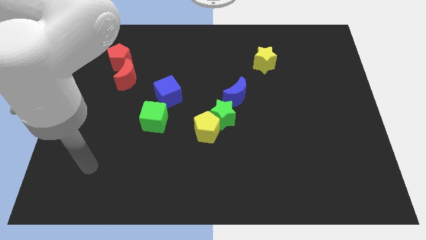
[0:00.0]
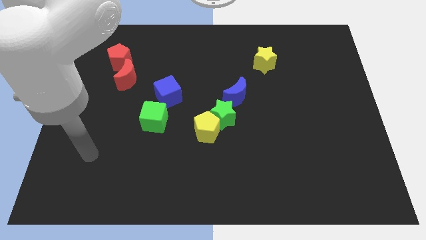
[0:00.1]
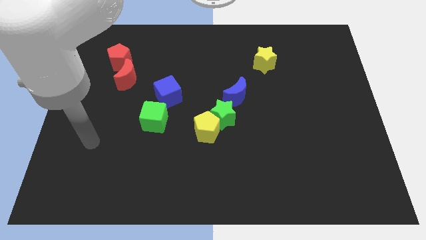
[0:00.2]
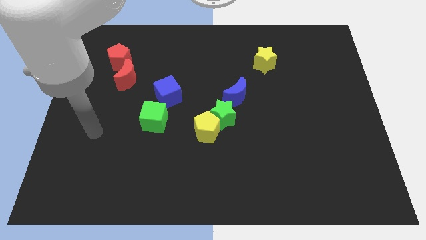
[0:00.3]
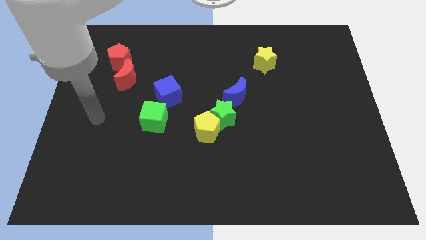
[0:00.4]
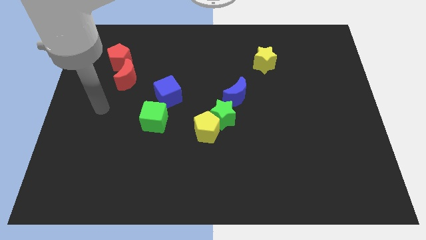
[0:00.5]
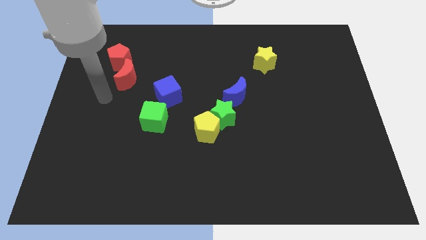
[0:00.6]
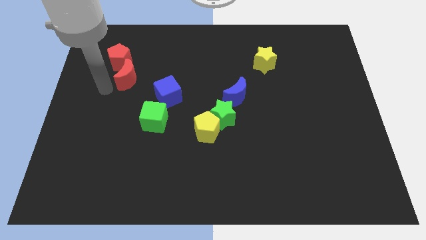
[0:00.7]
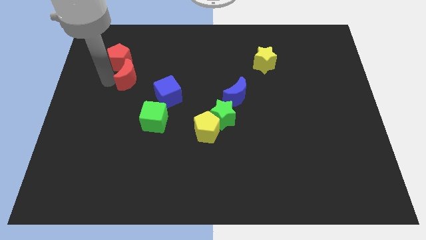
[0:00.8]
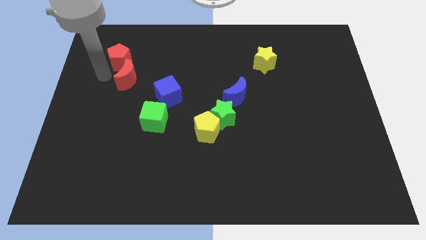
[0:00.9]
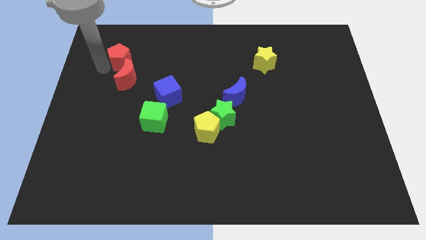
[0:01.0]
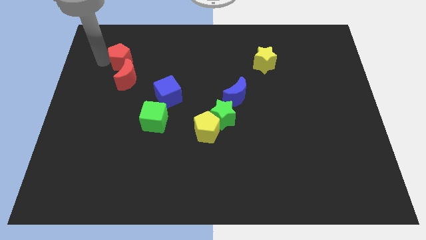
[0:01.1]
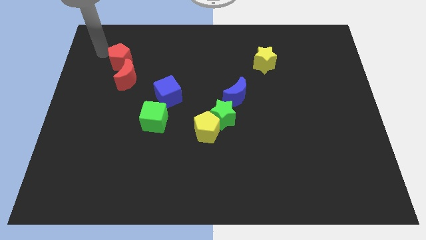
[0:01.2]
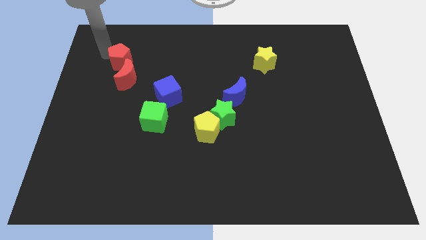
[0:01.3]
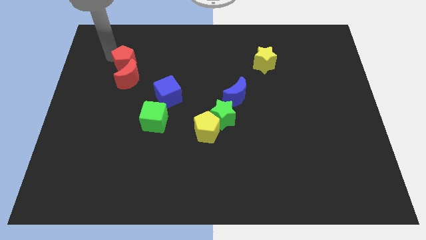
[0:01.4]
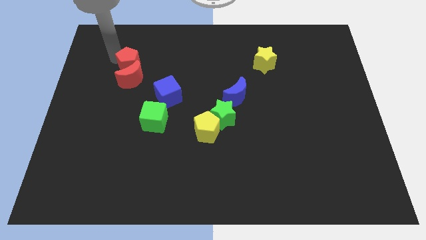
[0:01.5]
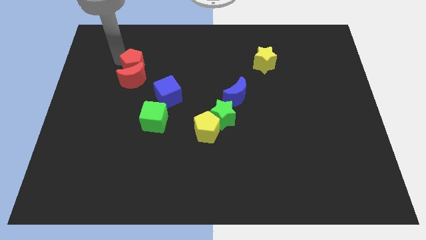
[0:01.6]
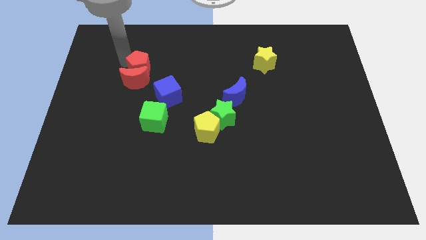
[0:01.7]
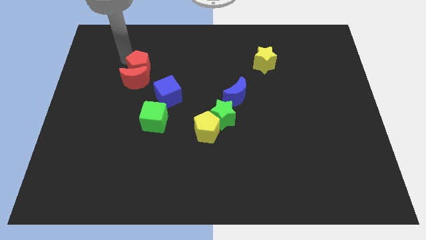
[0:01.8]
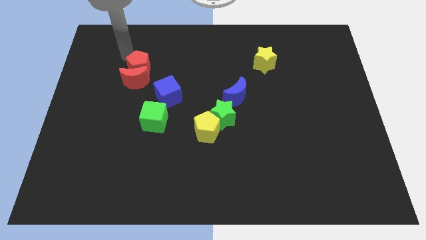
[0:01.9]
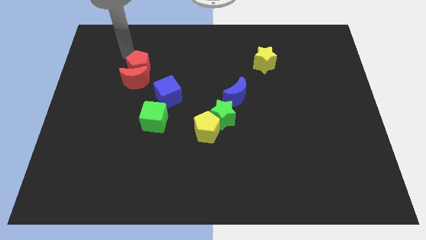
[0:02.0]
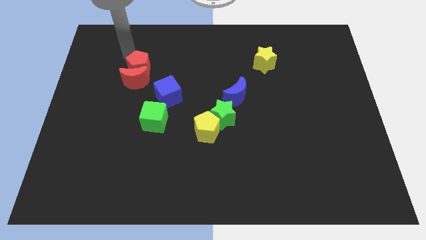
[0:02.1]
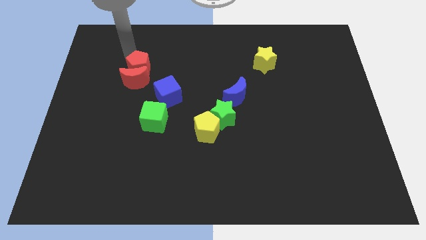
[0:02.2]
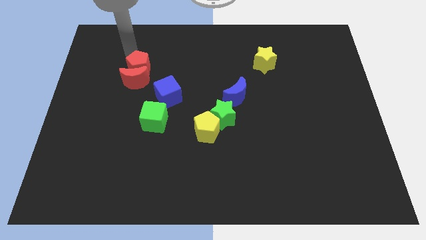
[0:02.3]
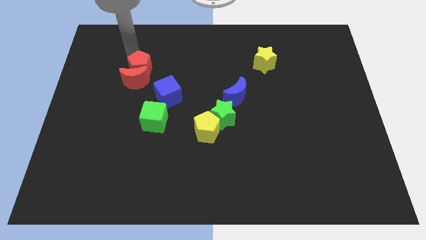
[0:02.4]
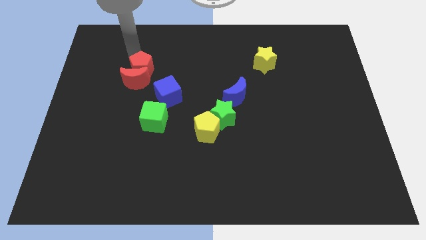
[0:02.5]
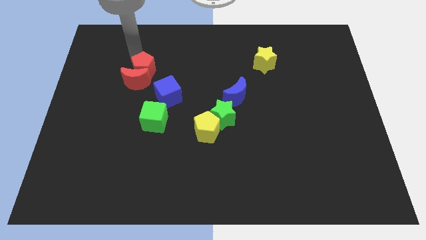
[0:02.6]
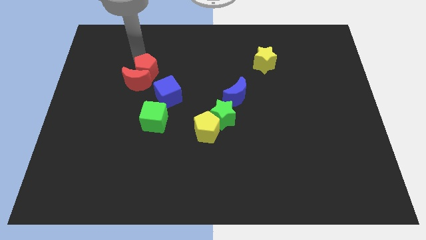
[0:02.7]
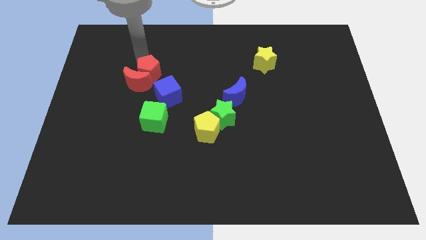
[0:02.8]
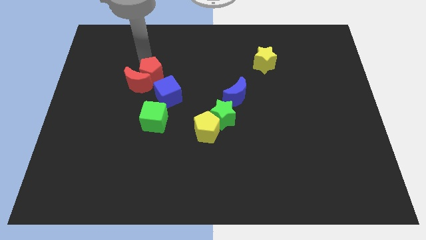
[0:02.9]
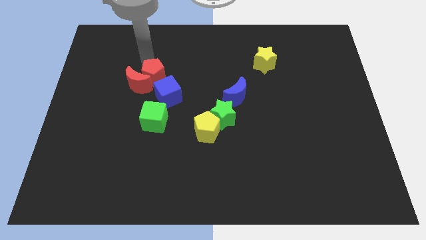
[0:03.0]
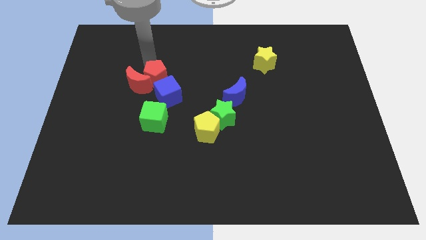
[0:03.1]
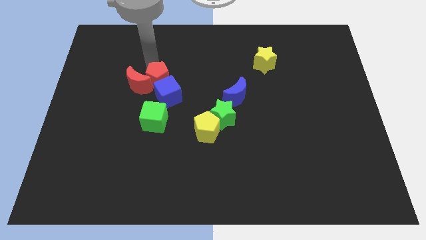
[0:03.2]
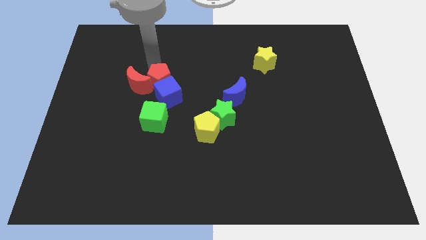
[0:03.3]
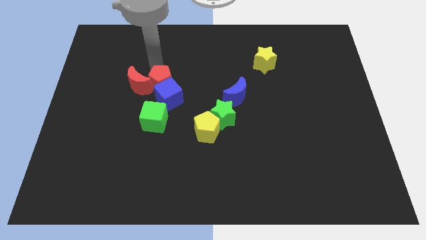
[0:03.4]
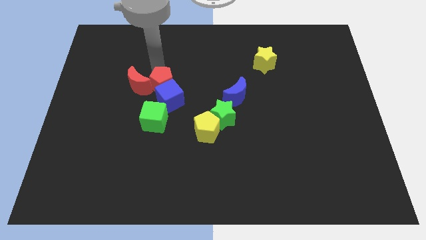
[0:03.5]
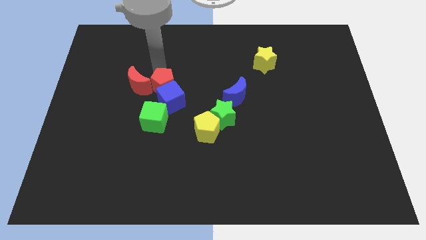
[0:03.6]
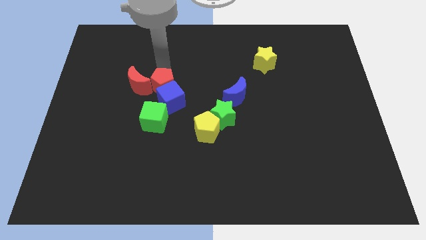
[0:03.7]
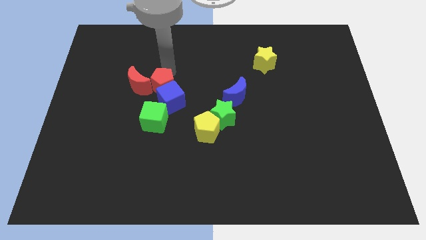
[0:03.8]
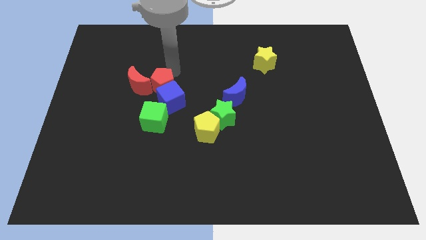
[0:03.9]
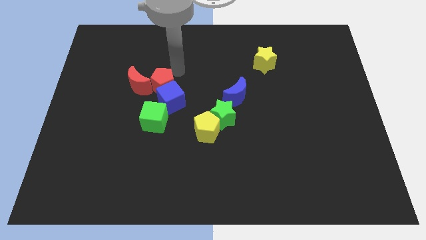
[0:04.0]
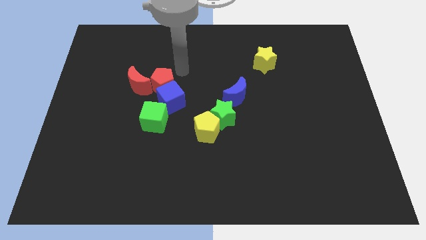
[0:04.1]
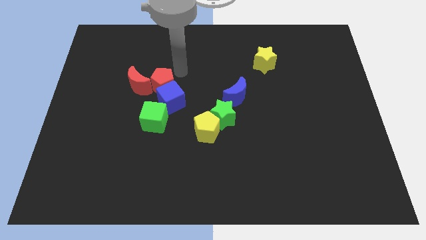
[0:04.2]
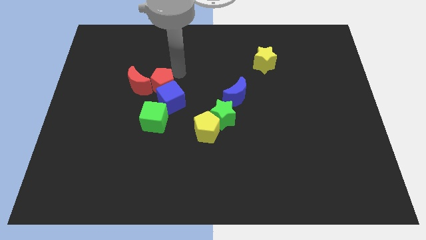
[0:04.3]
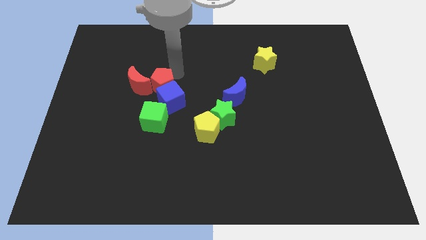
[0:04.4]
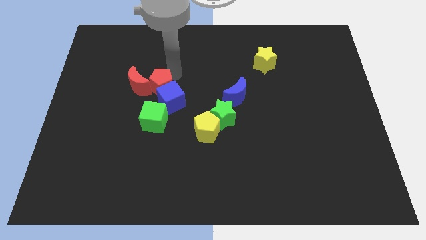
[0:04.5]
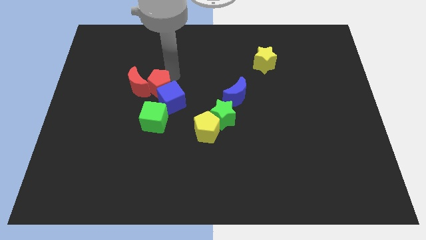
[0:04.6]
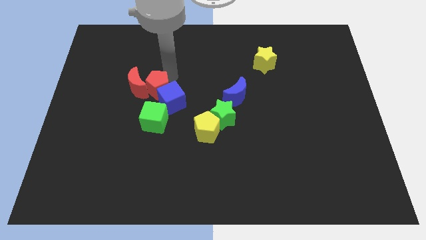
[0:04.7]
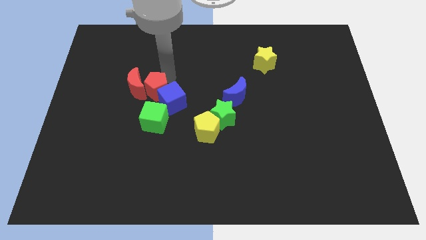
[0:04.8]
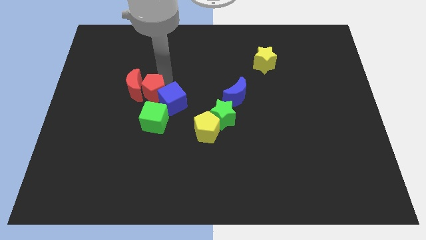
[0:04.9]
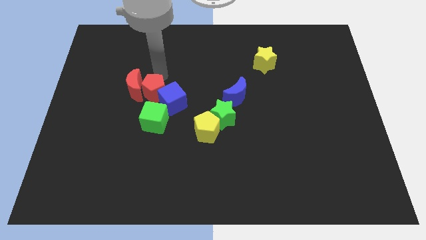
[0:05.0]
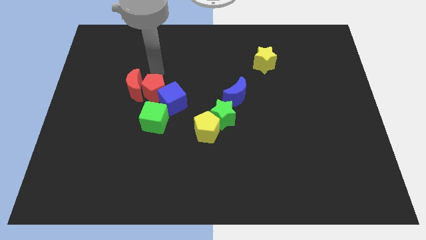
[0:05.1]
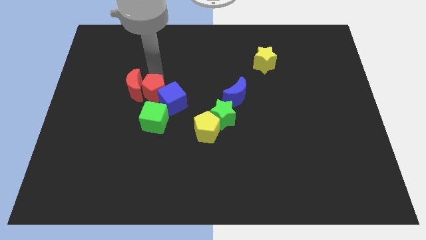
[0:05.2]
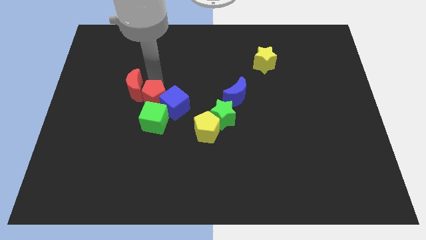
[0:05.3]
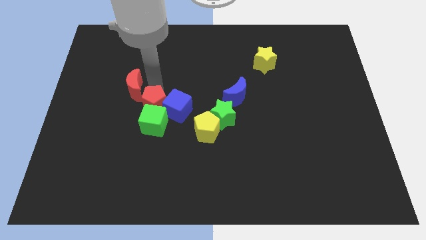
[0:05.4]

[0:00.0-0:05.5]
move the red pentagon next to the green cube

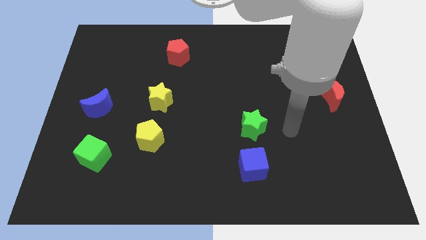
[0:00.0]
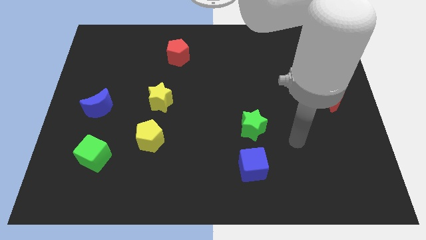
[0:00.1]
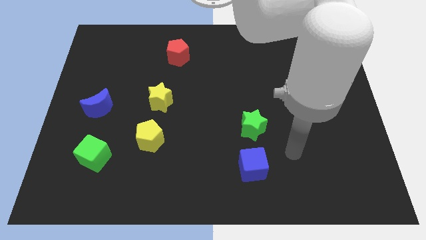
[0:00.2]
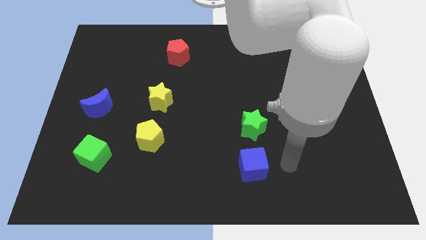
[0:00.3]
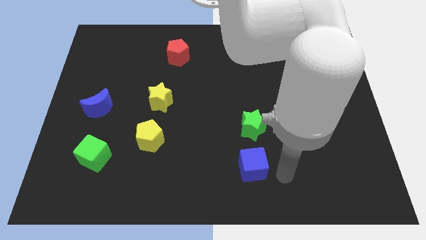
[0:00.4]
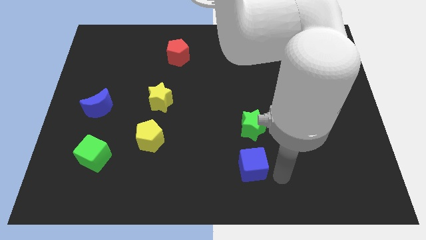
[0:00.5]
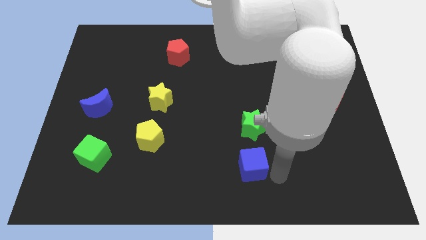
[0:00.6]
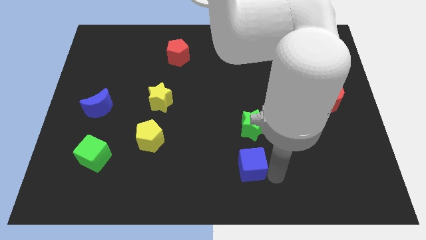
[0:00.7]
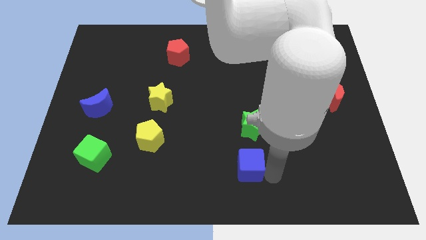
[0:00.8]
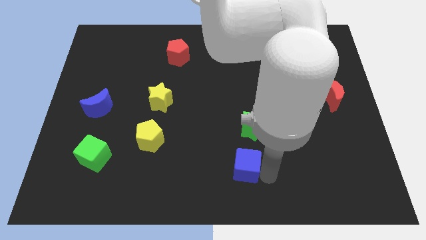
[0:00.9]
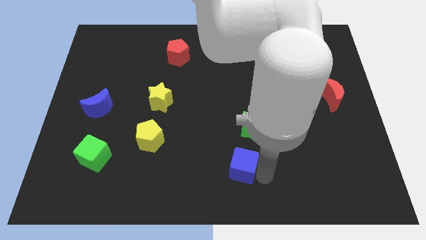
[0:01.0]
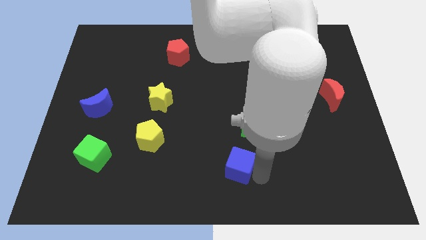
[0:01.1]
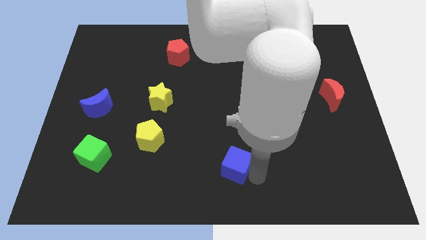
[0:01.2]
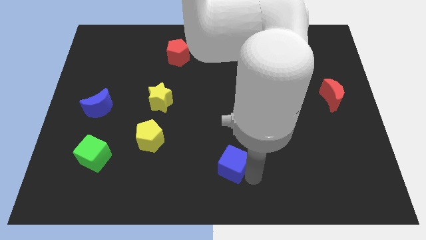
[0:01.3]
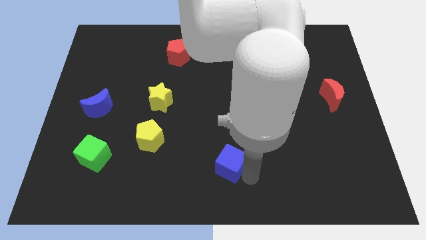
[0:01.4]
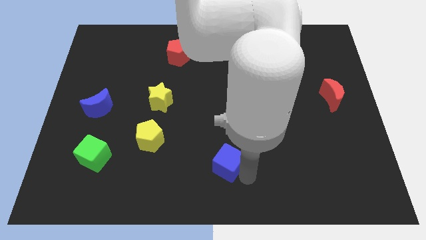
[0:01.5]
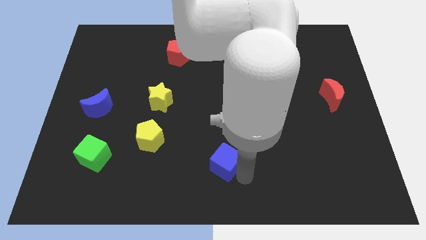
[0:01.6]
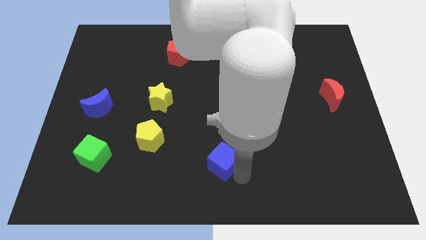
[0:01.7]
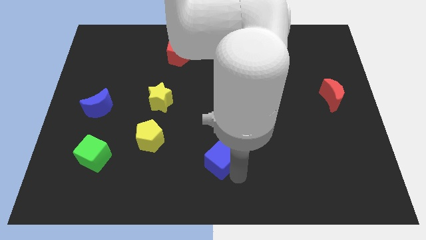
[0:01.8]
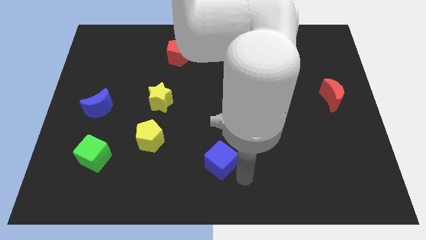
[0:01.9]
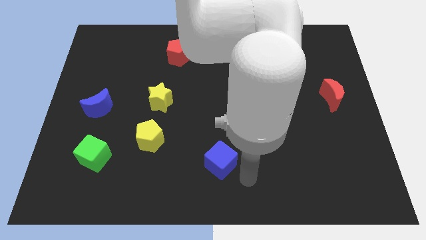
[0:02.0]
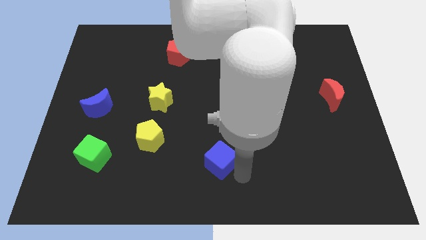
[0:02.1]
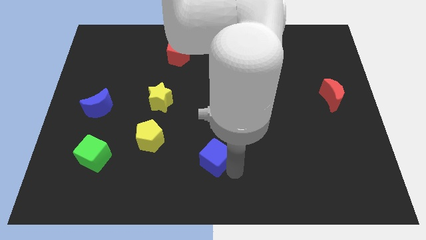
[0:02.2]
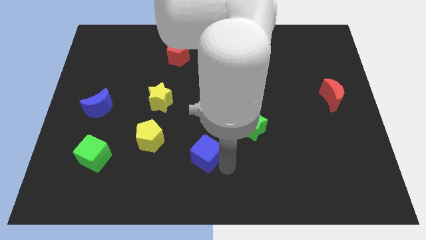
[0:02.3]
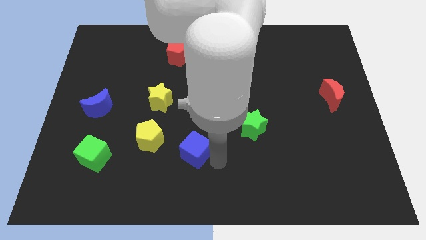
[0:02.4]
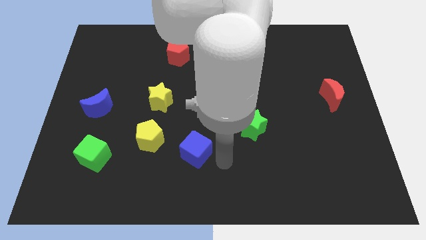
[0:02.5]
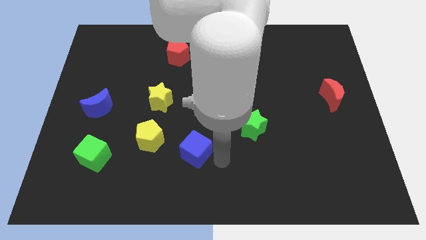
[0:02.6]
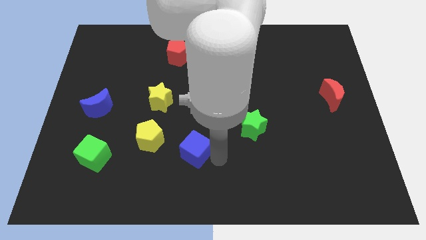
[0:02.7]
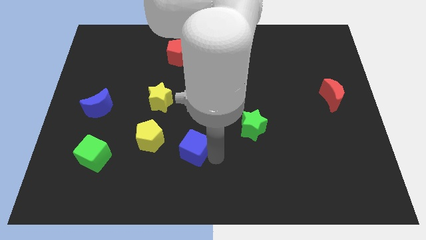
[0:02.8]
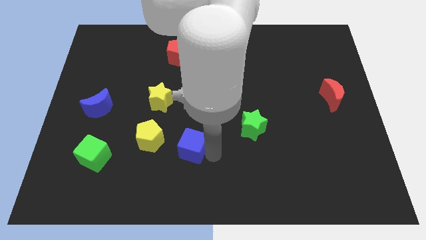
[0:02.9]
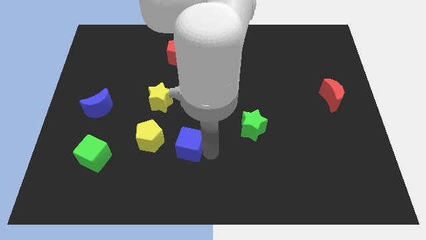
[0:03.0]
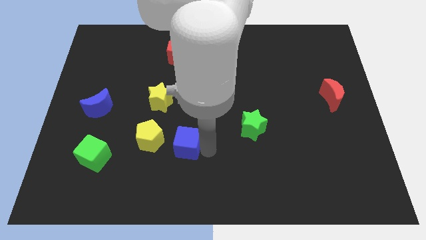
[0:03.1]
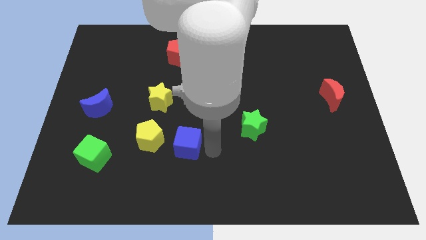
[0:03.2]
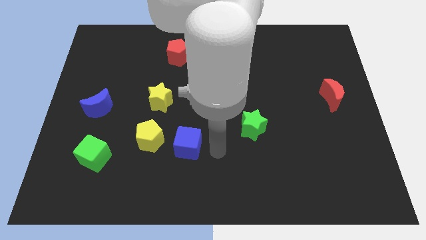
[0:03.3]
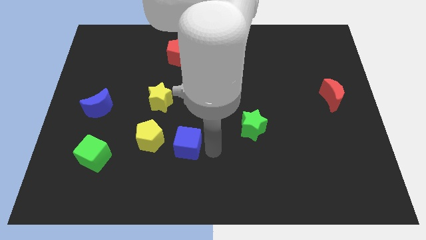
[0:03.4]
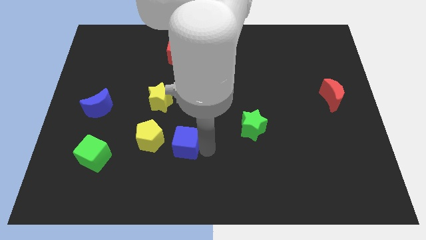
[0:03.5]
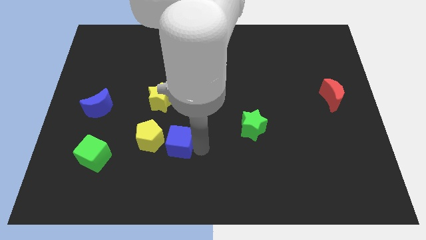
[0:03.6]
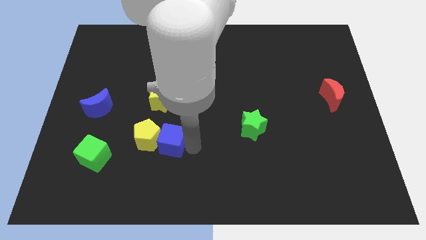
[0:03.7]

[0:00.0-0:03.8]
move the blue cube next to the yellow pentagon
